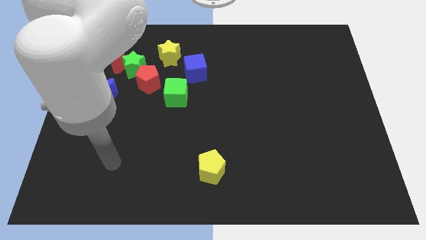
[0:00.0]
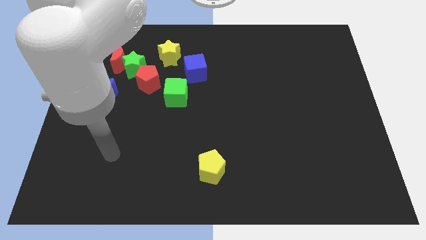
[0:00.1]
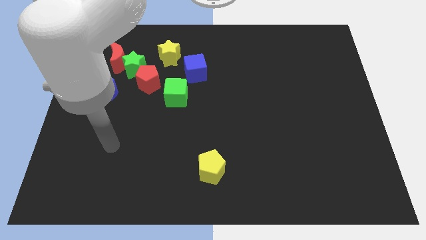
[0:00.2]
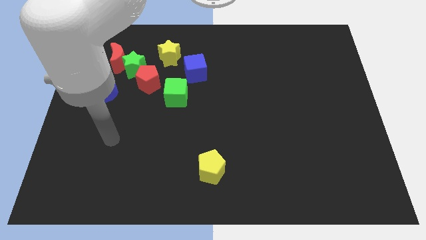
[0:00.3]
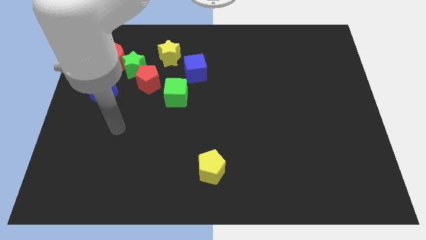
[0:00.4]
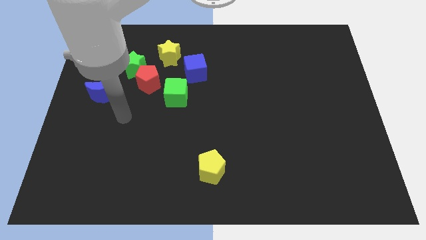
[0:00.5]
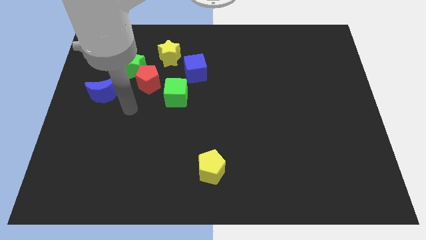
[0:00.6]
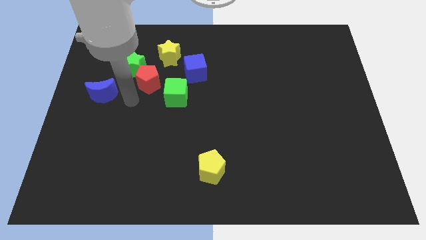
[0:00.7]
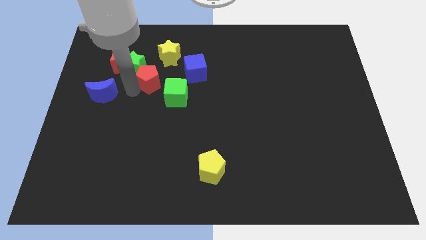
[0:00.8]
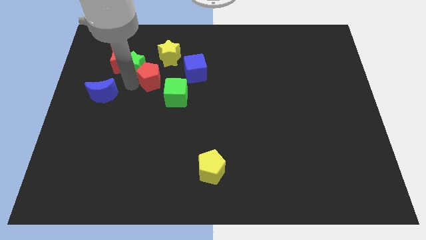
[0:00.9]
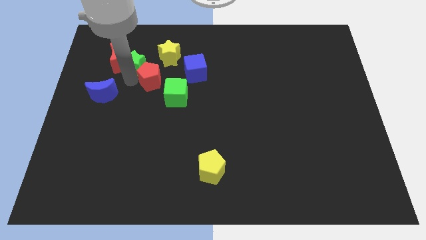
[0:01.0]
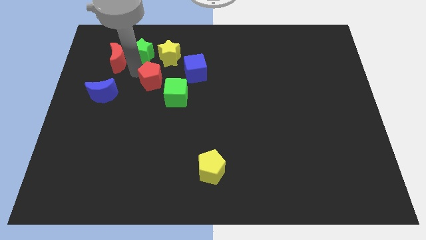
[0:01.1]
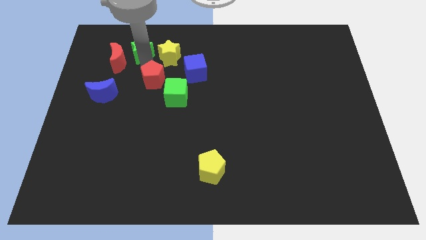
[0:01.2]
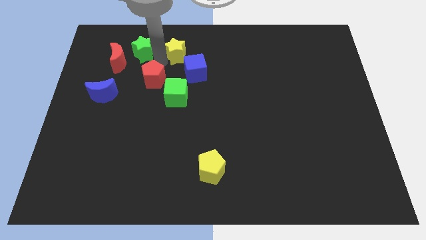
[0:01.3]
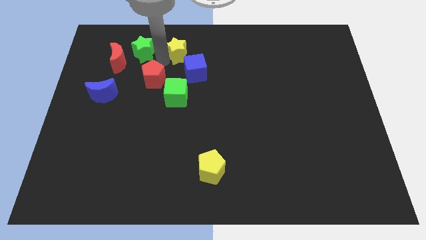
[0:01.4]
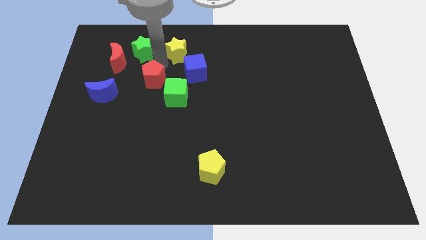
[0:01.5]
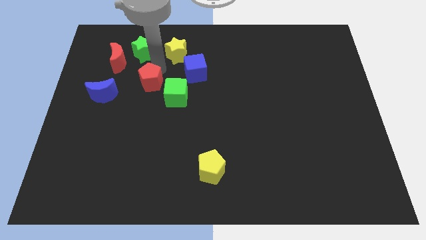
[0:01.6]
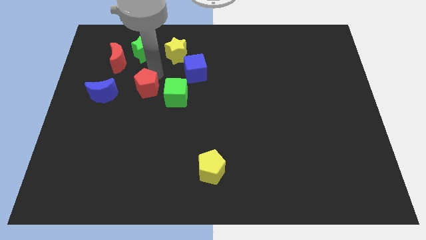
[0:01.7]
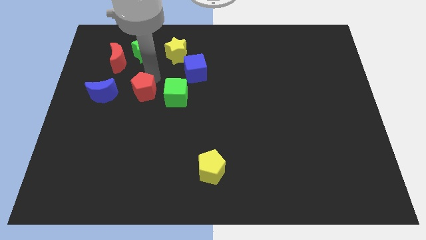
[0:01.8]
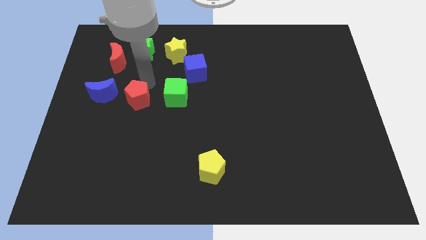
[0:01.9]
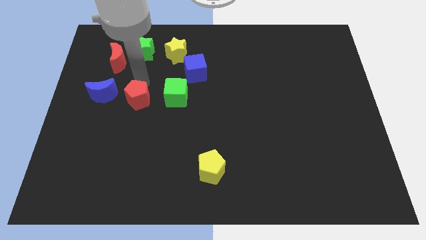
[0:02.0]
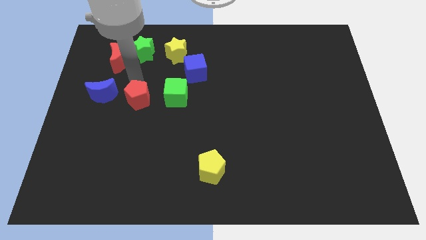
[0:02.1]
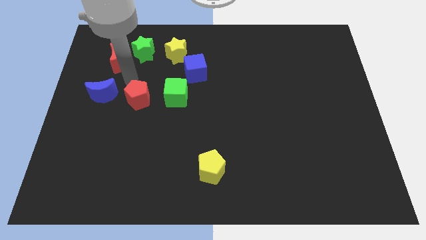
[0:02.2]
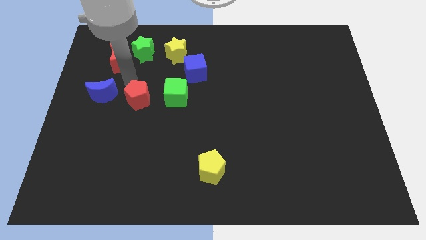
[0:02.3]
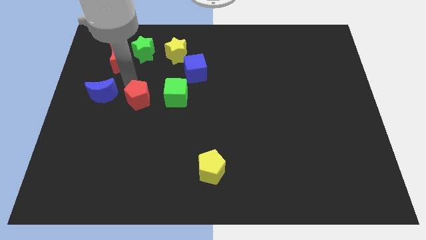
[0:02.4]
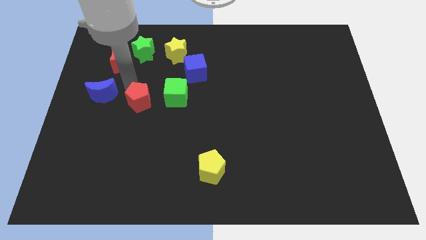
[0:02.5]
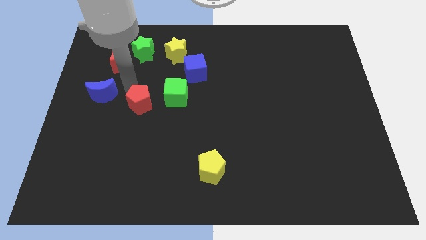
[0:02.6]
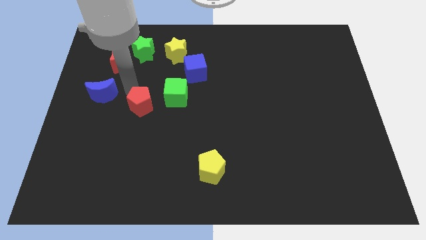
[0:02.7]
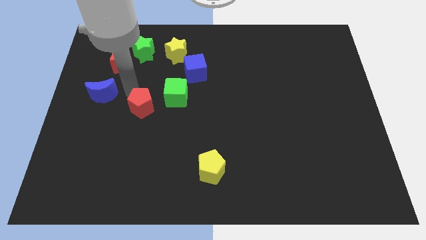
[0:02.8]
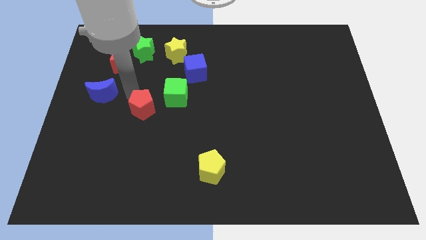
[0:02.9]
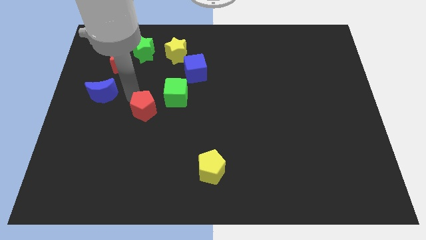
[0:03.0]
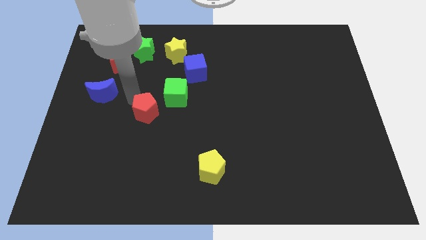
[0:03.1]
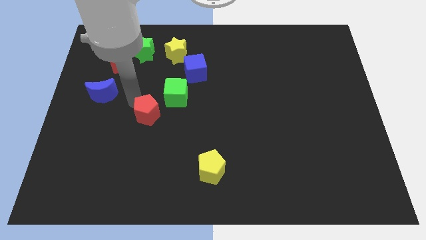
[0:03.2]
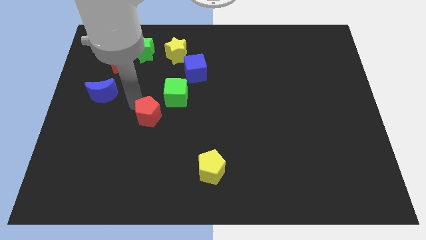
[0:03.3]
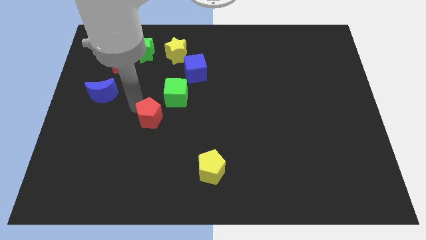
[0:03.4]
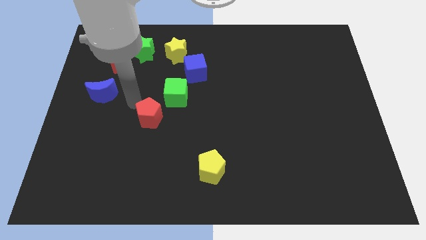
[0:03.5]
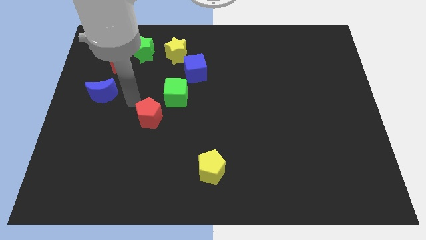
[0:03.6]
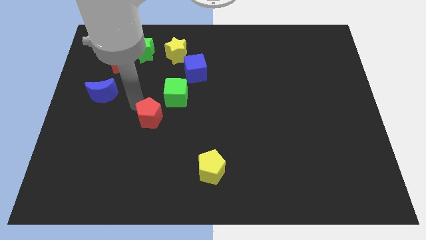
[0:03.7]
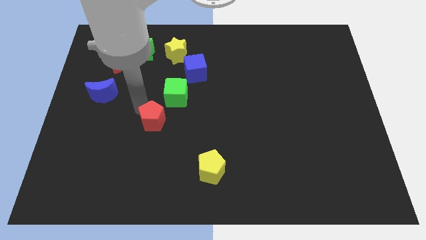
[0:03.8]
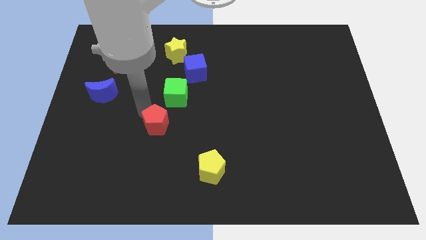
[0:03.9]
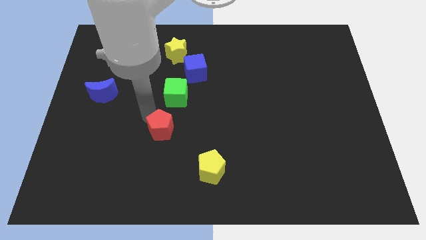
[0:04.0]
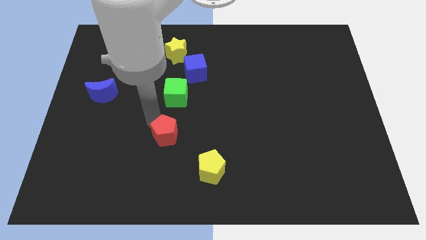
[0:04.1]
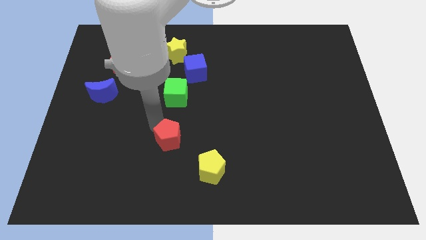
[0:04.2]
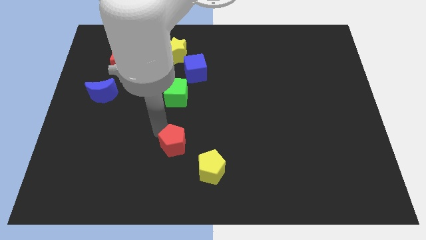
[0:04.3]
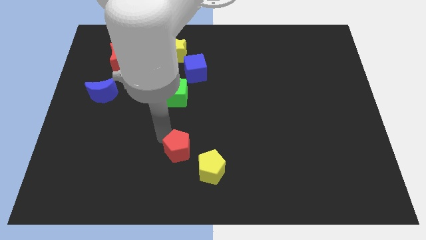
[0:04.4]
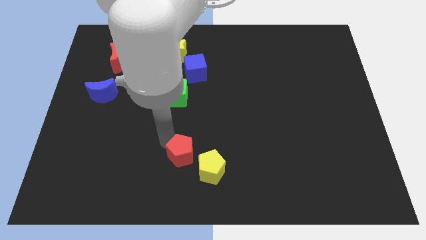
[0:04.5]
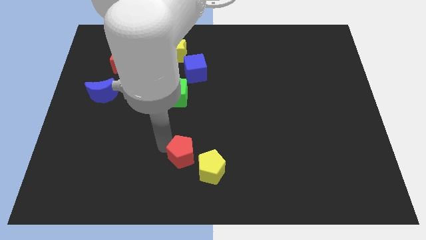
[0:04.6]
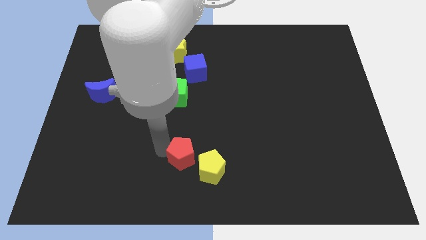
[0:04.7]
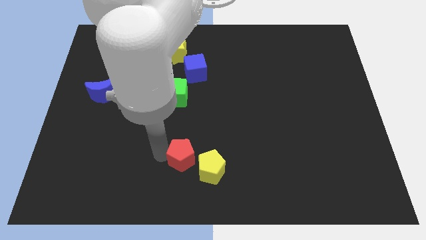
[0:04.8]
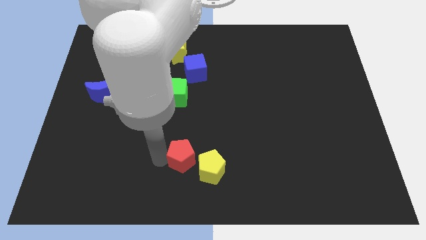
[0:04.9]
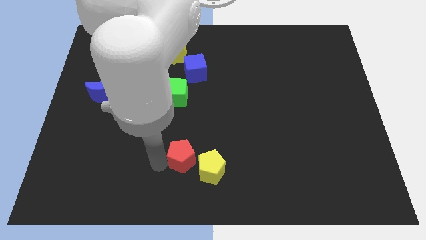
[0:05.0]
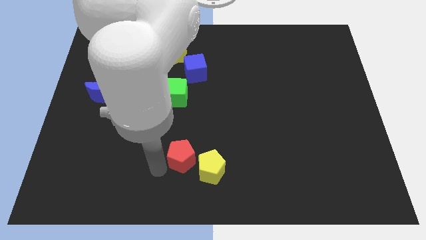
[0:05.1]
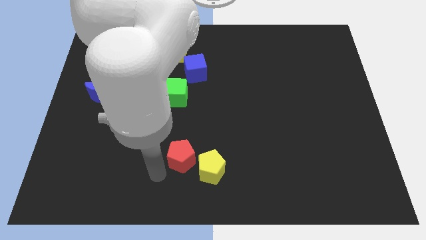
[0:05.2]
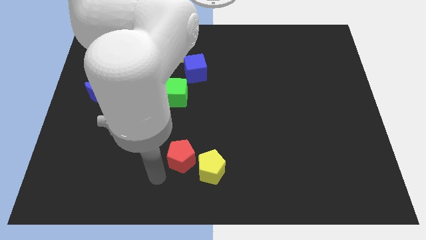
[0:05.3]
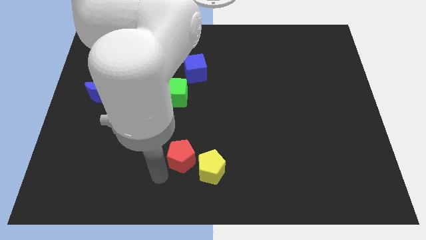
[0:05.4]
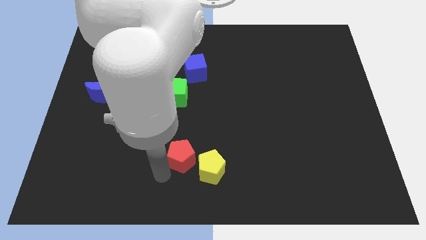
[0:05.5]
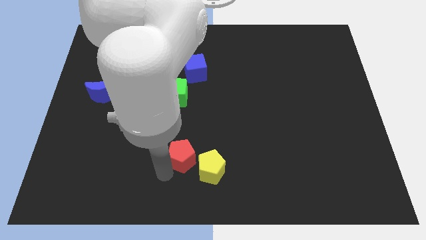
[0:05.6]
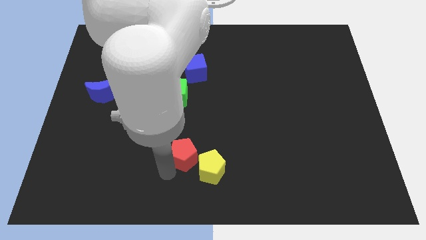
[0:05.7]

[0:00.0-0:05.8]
put the red pentagon to the yellow pentagon

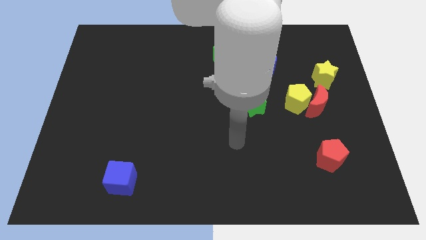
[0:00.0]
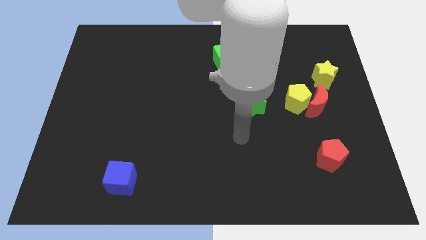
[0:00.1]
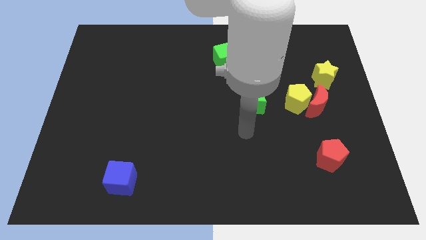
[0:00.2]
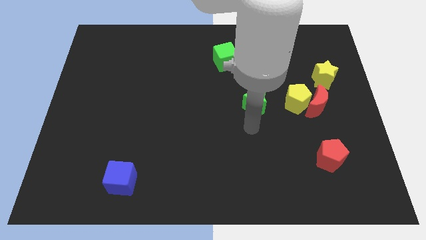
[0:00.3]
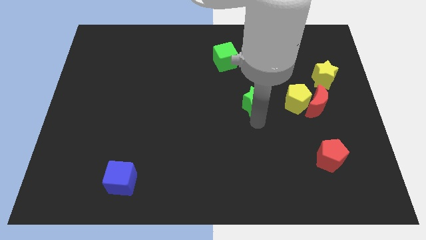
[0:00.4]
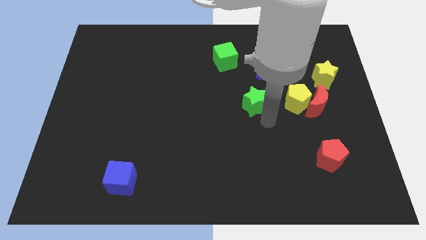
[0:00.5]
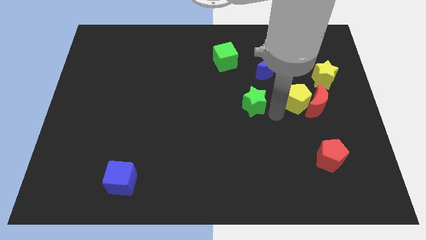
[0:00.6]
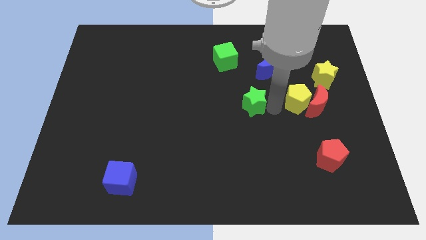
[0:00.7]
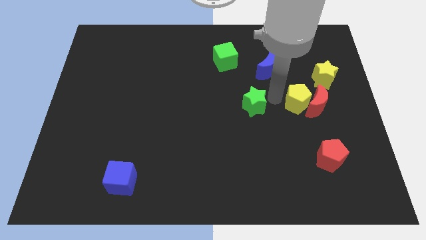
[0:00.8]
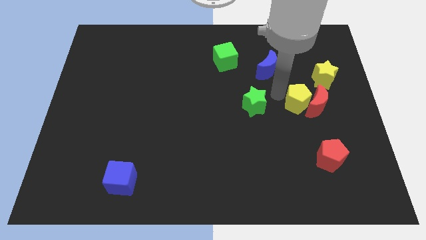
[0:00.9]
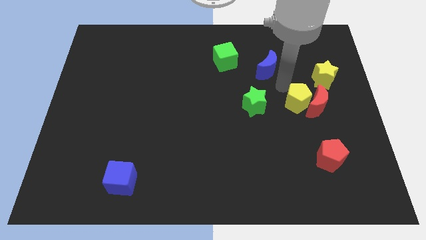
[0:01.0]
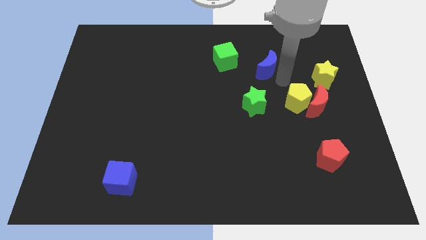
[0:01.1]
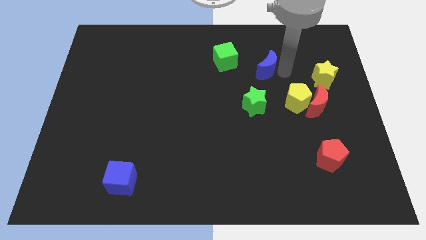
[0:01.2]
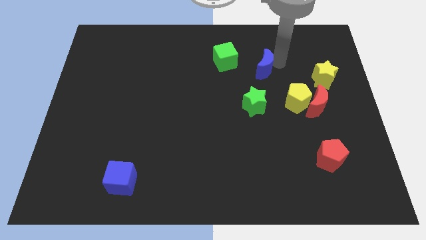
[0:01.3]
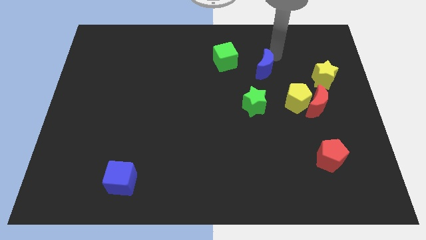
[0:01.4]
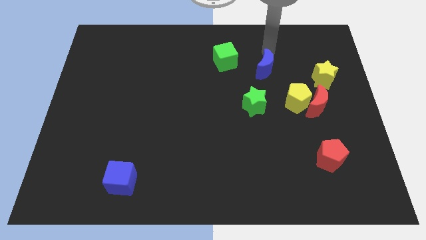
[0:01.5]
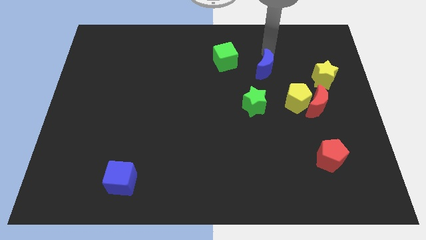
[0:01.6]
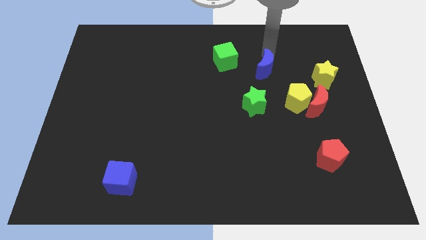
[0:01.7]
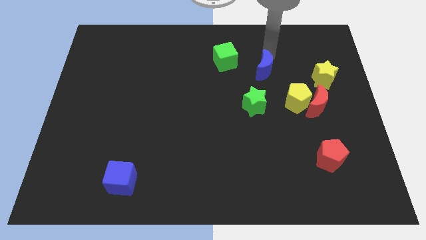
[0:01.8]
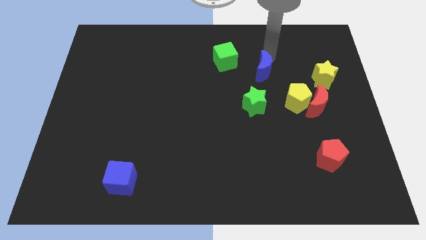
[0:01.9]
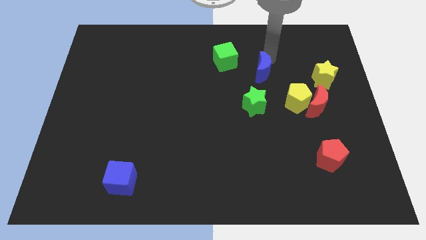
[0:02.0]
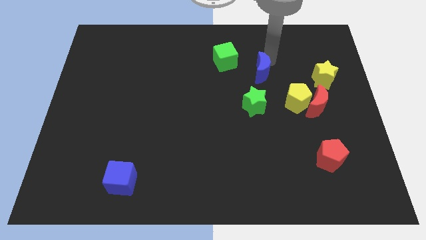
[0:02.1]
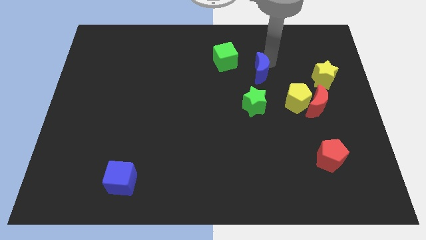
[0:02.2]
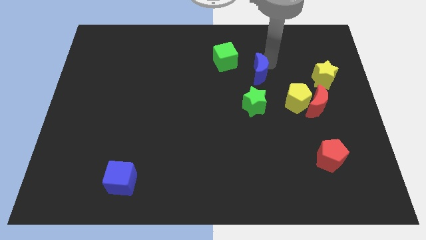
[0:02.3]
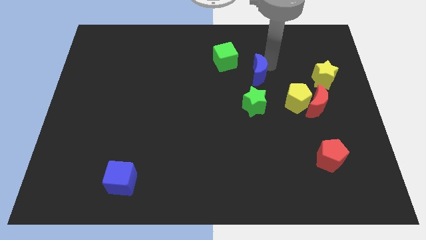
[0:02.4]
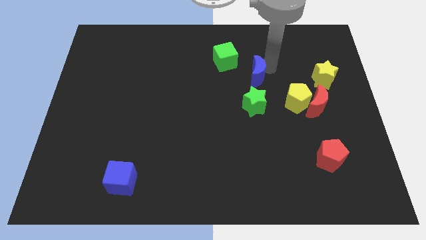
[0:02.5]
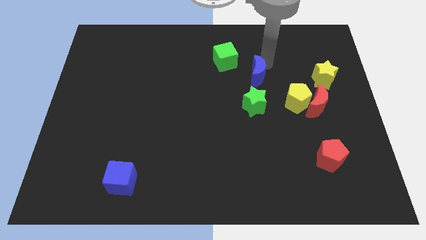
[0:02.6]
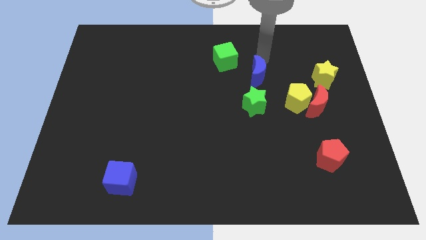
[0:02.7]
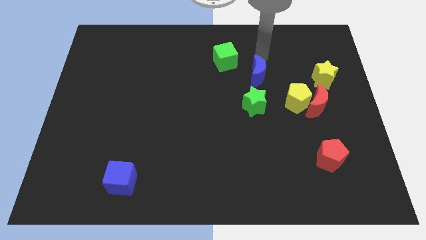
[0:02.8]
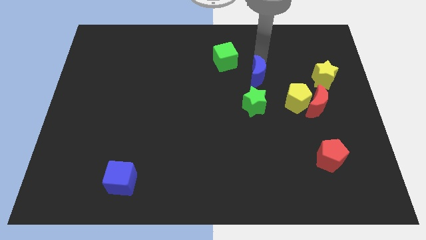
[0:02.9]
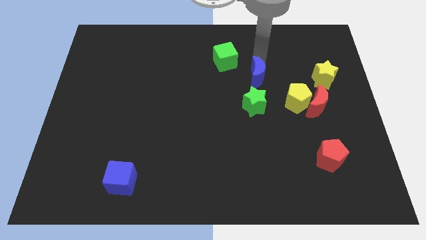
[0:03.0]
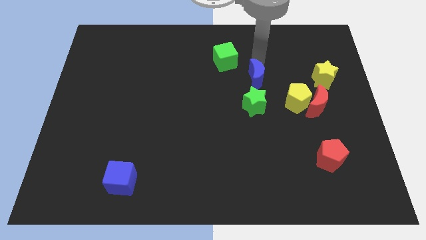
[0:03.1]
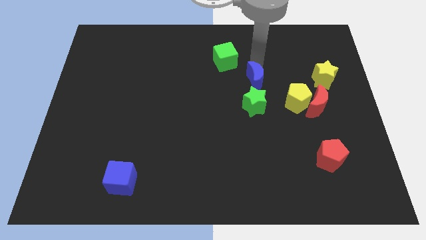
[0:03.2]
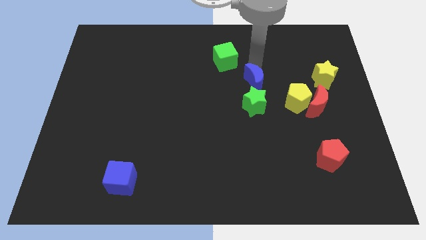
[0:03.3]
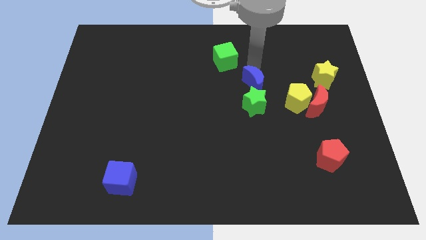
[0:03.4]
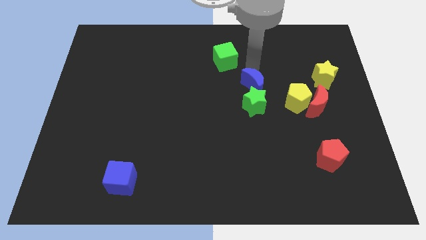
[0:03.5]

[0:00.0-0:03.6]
move the blue moon next to the green star
